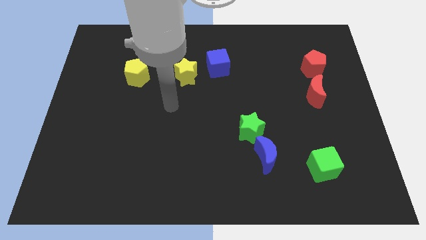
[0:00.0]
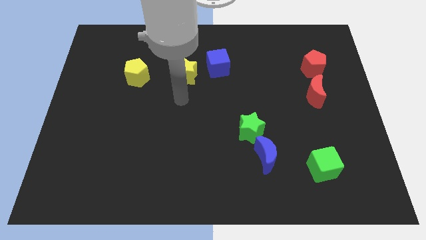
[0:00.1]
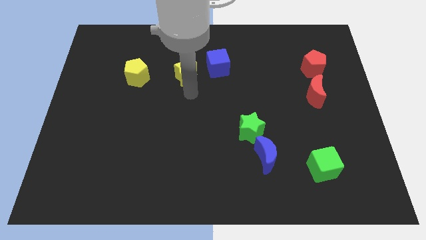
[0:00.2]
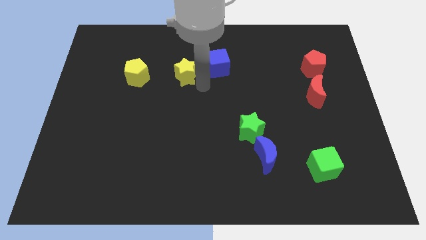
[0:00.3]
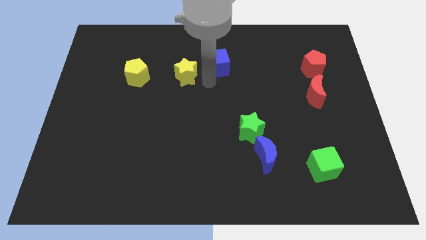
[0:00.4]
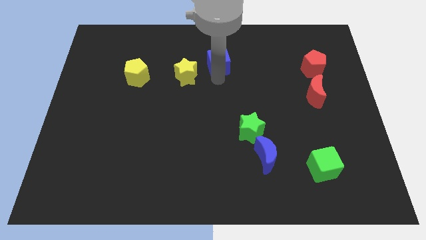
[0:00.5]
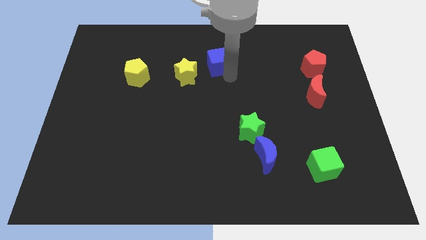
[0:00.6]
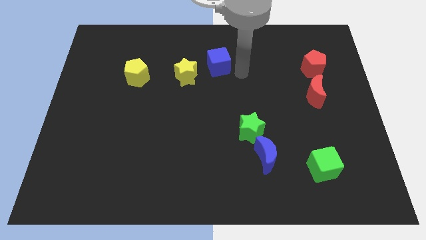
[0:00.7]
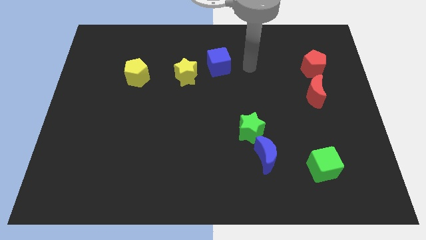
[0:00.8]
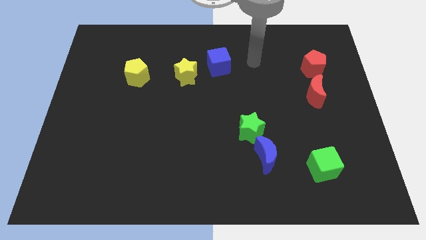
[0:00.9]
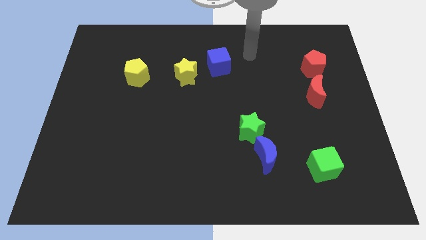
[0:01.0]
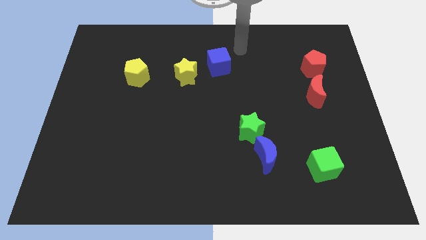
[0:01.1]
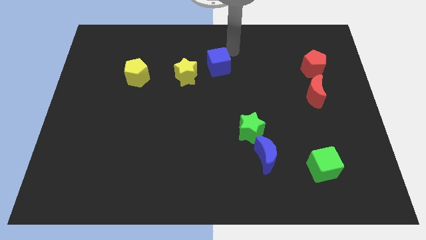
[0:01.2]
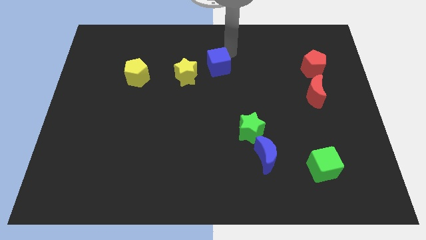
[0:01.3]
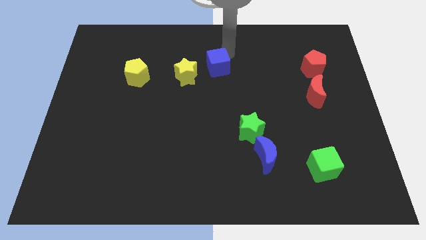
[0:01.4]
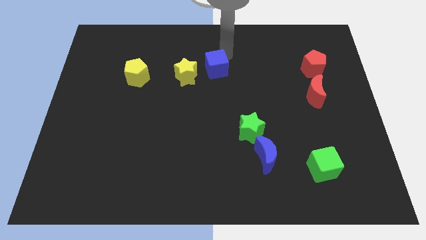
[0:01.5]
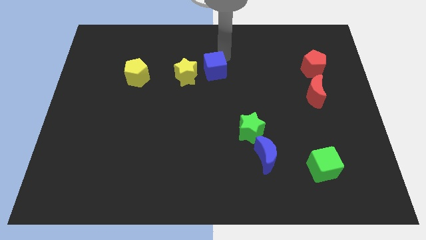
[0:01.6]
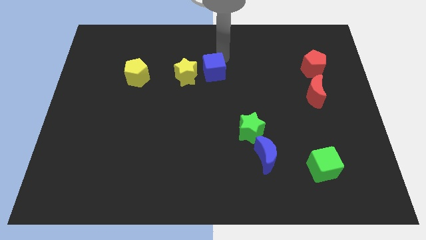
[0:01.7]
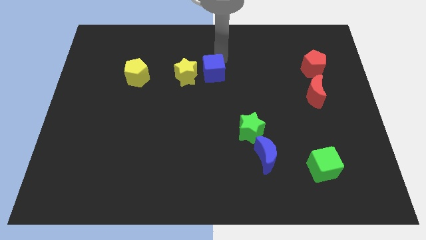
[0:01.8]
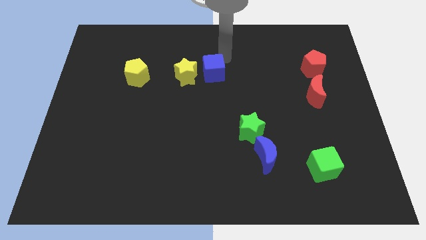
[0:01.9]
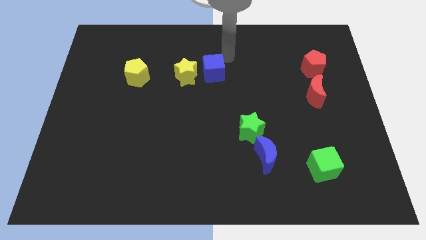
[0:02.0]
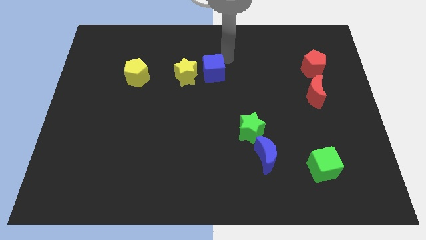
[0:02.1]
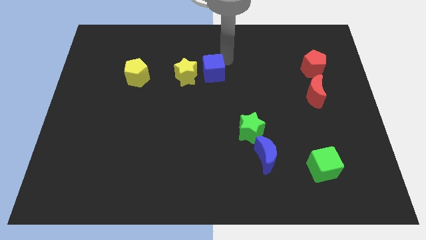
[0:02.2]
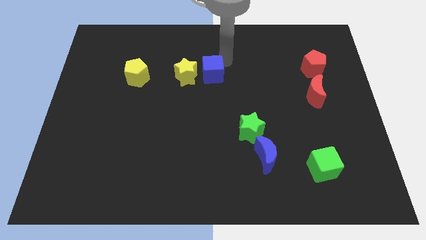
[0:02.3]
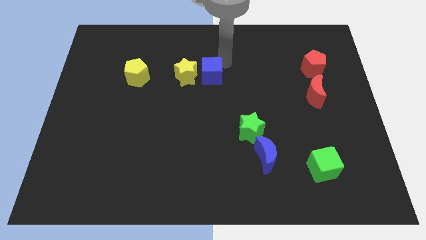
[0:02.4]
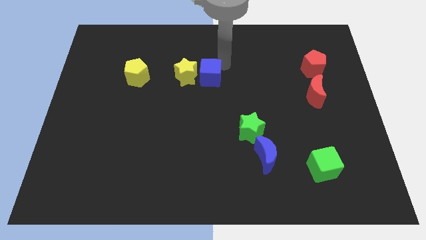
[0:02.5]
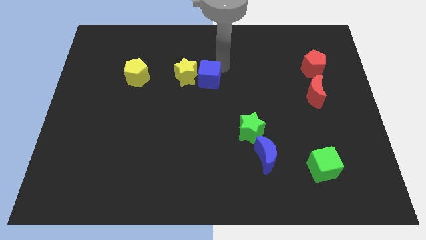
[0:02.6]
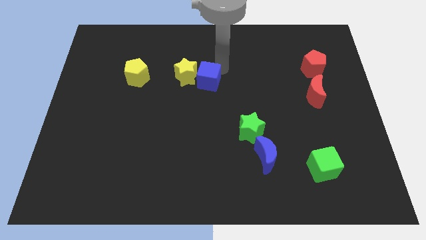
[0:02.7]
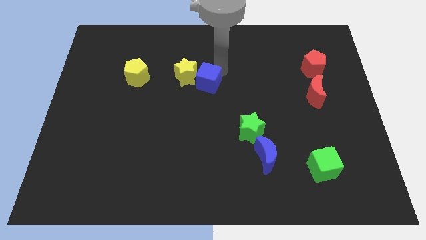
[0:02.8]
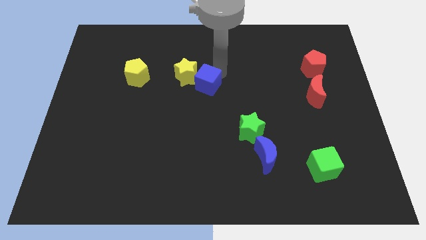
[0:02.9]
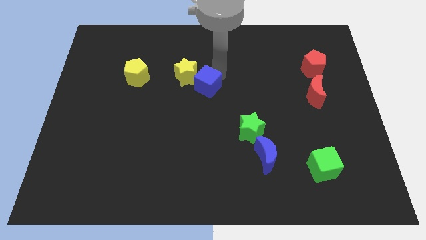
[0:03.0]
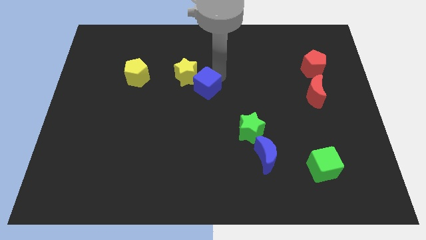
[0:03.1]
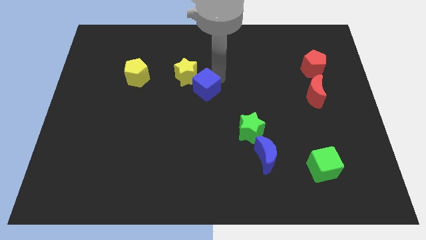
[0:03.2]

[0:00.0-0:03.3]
slightly push the blue cube down and to the left

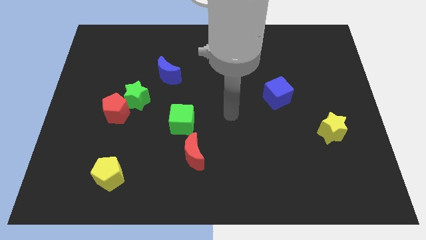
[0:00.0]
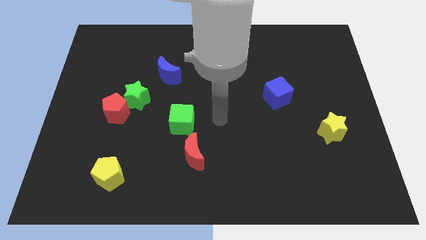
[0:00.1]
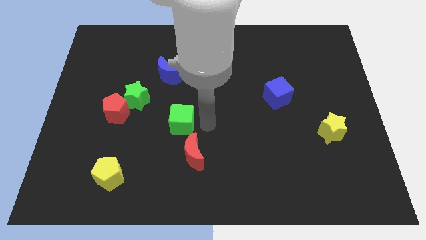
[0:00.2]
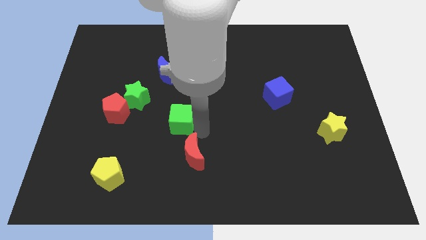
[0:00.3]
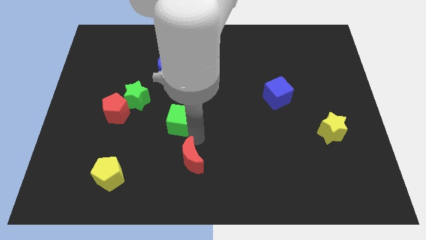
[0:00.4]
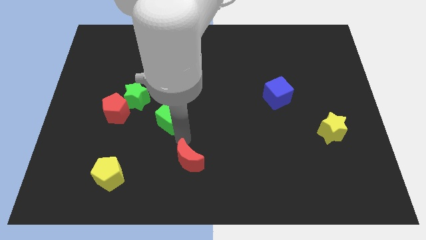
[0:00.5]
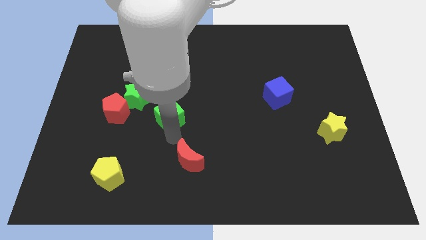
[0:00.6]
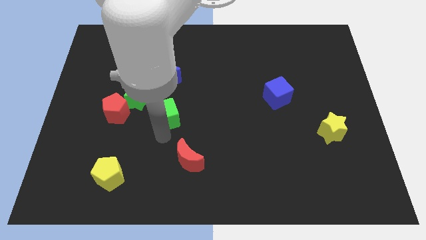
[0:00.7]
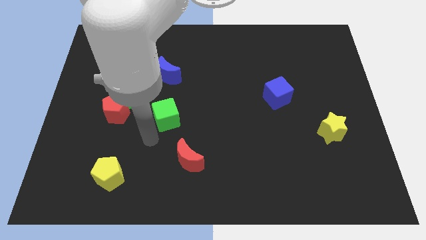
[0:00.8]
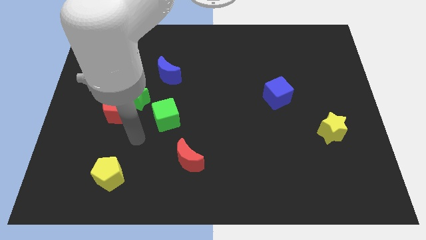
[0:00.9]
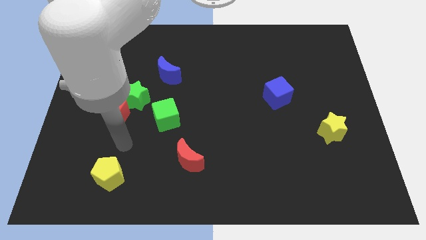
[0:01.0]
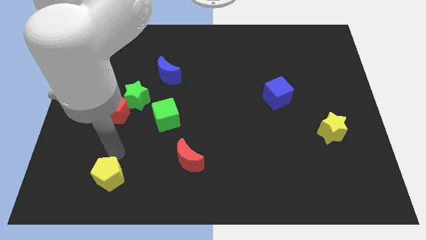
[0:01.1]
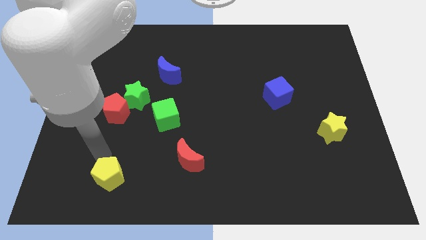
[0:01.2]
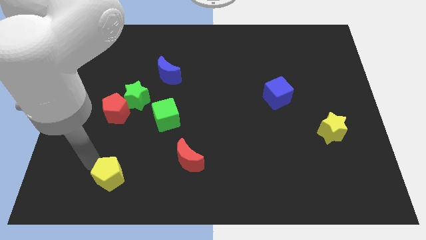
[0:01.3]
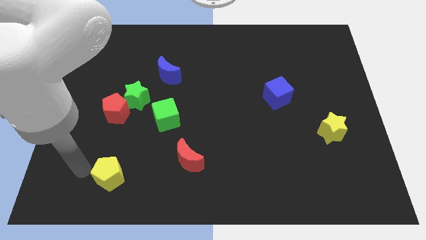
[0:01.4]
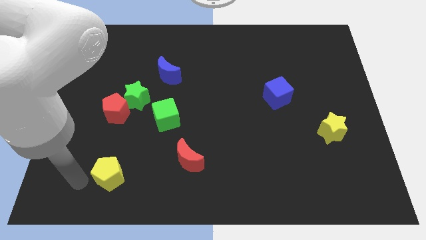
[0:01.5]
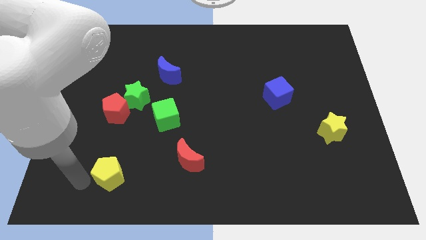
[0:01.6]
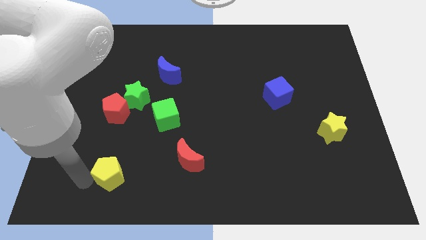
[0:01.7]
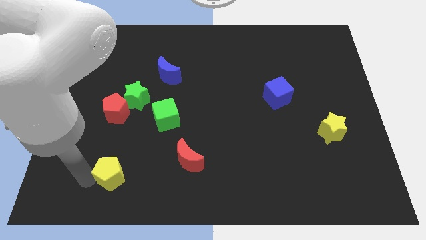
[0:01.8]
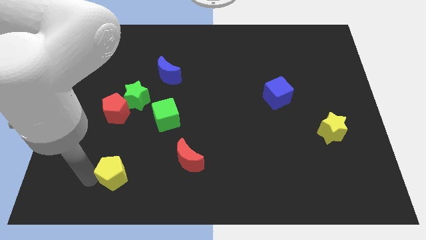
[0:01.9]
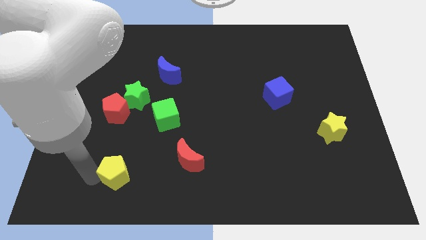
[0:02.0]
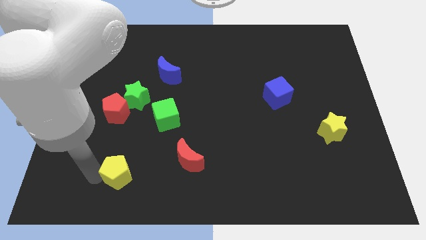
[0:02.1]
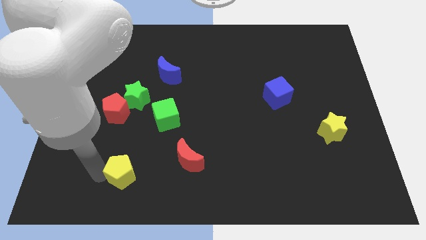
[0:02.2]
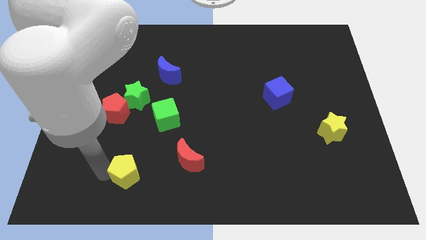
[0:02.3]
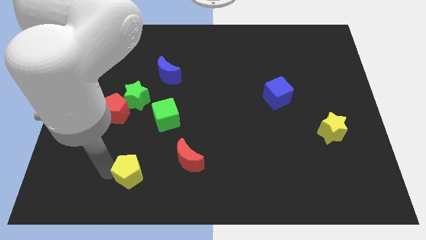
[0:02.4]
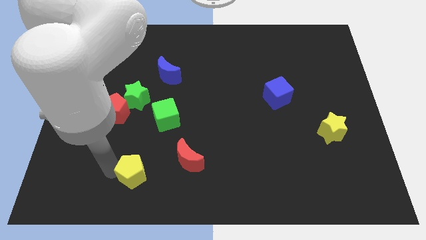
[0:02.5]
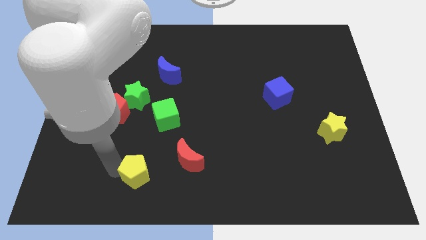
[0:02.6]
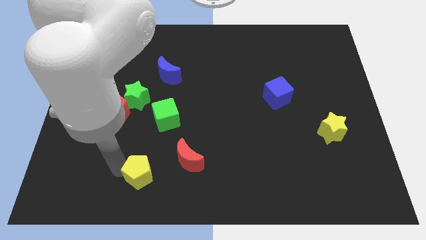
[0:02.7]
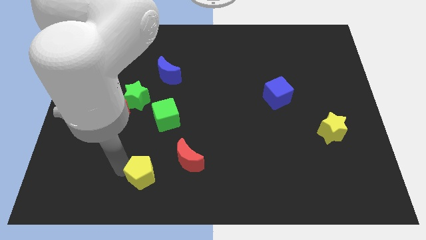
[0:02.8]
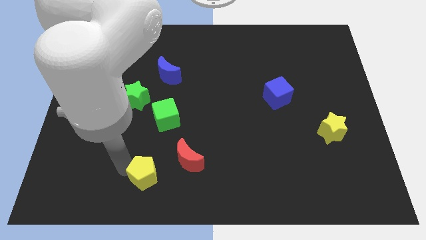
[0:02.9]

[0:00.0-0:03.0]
slightly slide the yellow pentagon right

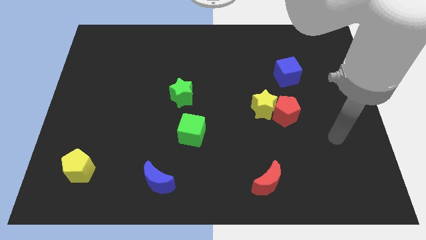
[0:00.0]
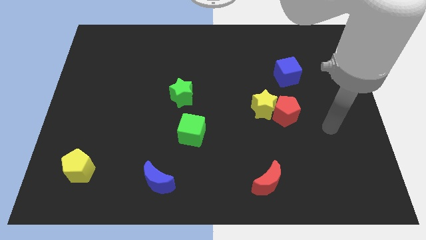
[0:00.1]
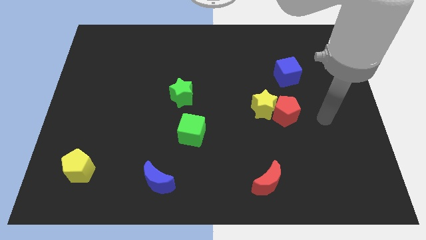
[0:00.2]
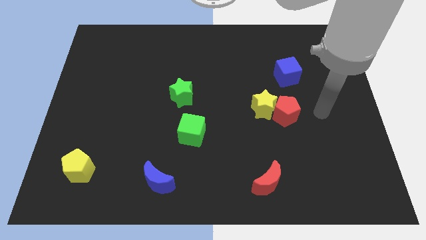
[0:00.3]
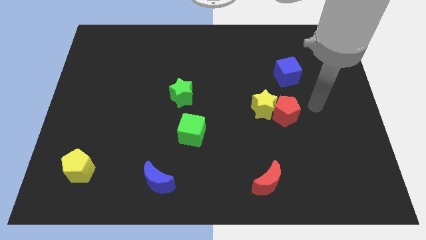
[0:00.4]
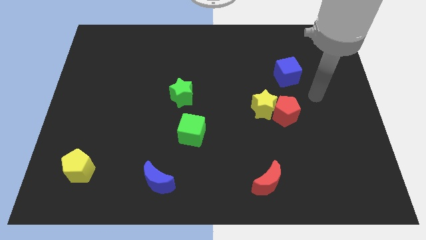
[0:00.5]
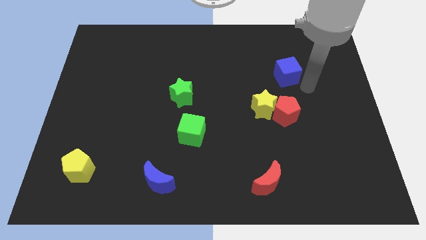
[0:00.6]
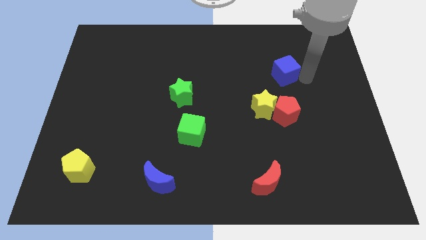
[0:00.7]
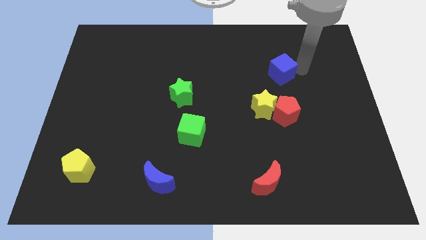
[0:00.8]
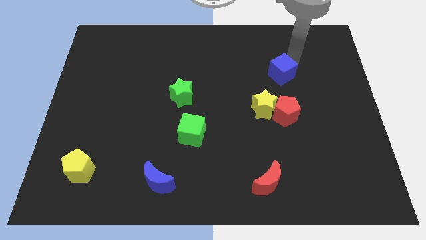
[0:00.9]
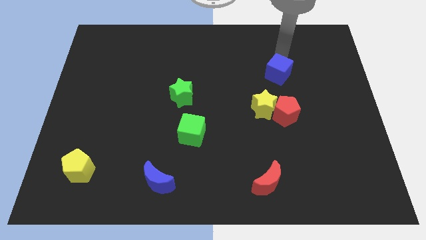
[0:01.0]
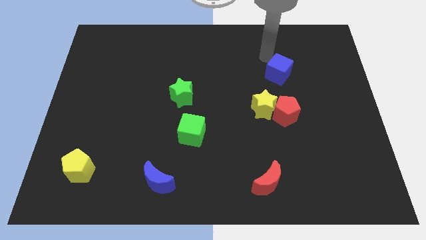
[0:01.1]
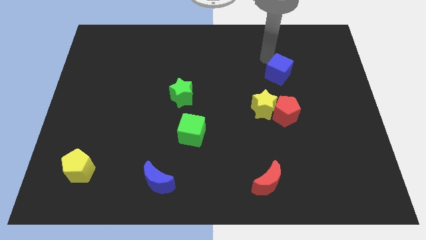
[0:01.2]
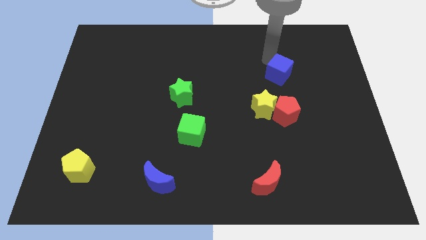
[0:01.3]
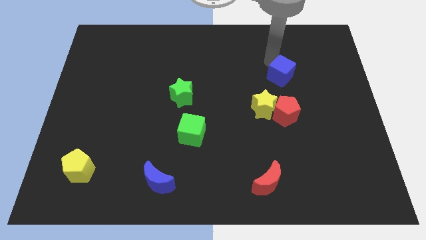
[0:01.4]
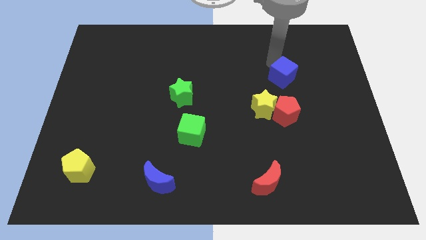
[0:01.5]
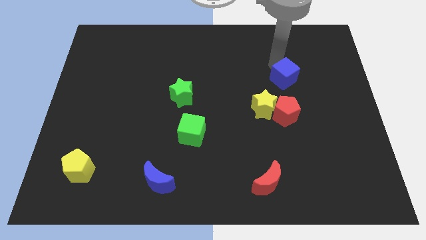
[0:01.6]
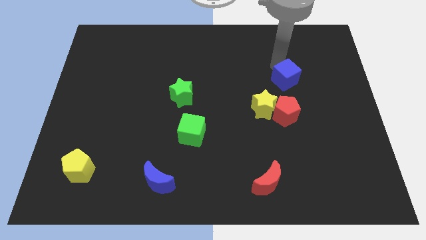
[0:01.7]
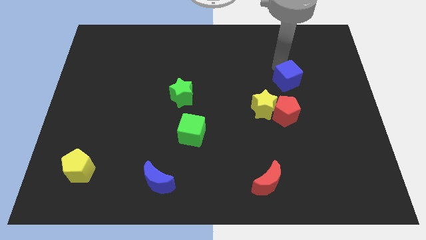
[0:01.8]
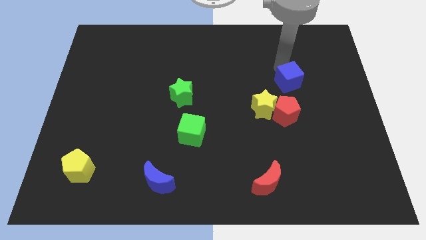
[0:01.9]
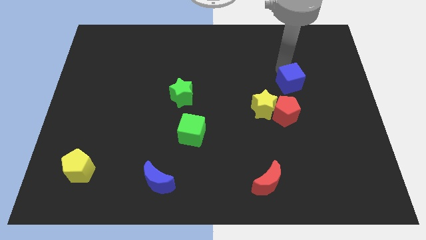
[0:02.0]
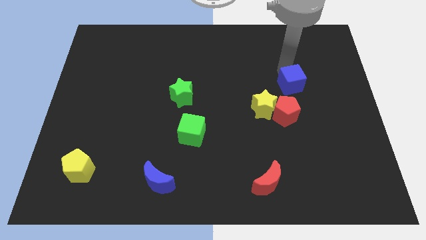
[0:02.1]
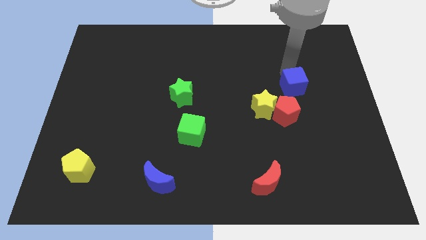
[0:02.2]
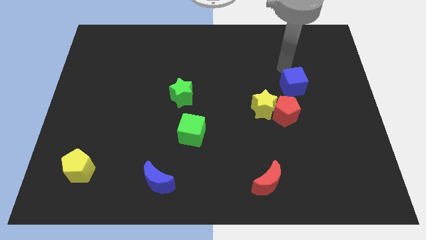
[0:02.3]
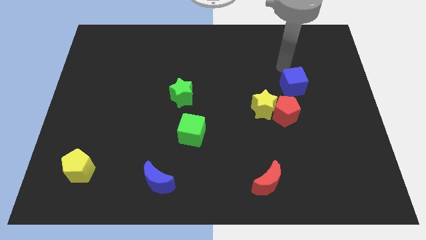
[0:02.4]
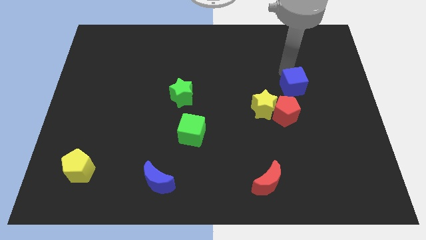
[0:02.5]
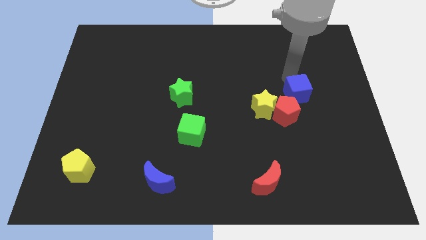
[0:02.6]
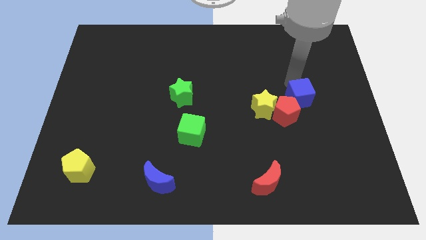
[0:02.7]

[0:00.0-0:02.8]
push the blue cube a little bit down
